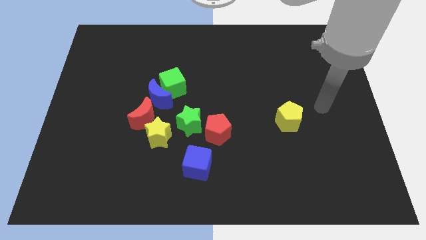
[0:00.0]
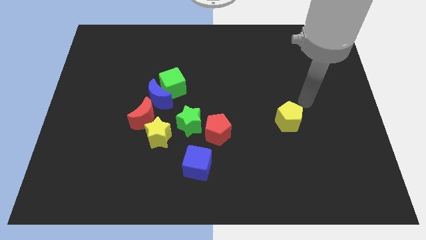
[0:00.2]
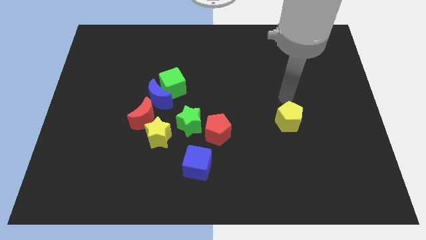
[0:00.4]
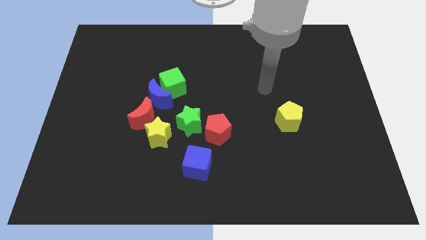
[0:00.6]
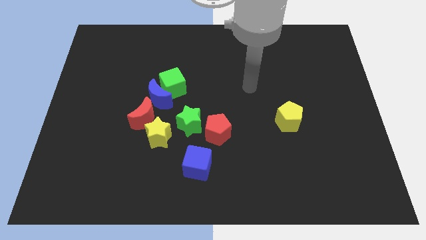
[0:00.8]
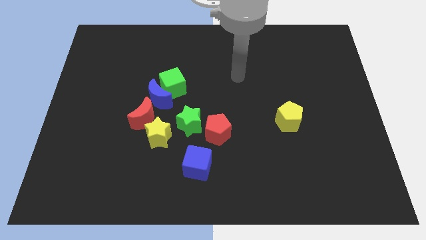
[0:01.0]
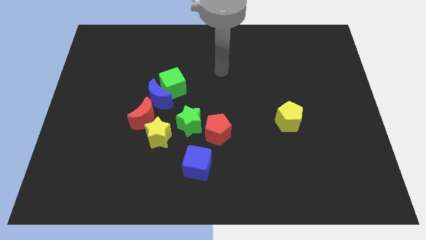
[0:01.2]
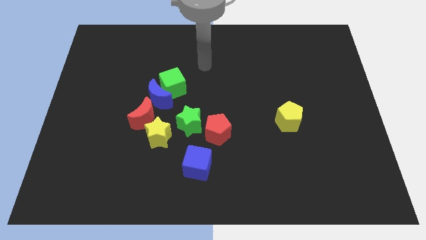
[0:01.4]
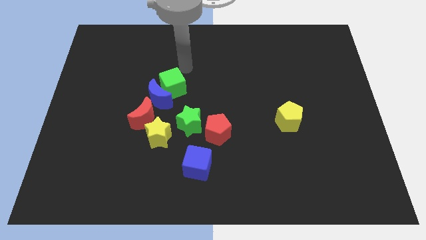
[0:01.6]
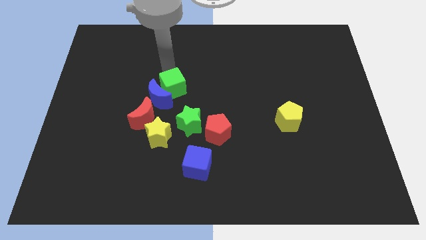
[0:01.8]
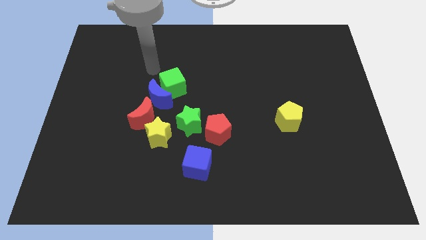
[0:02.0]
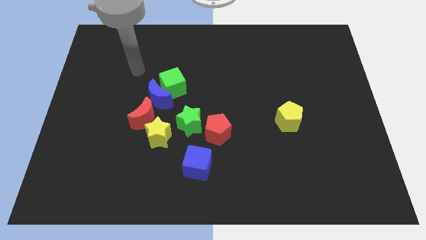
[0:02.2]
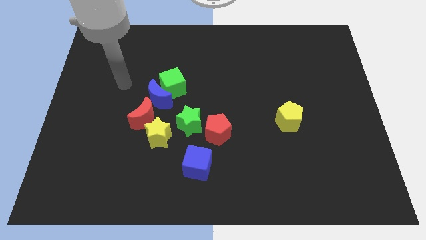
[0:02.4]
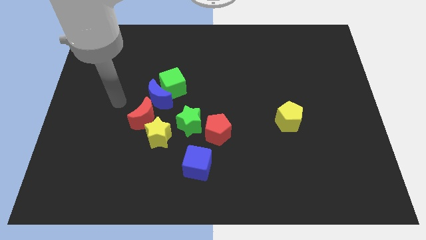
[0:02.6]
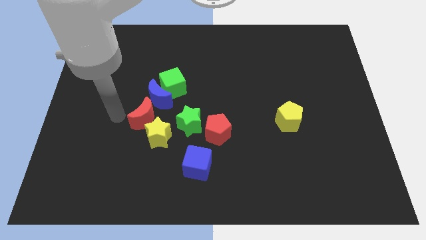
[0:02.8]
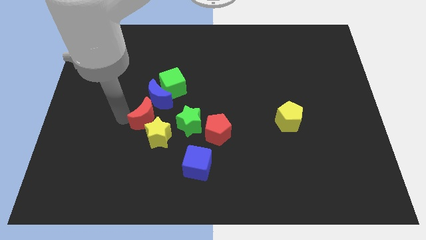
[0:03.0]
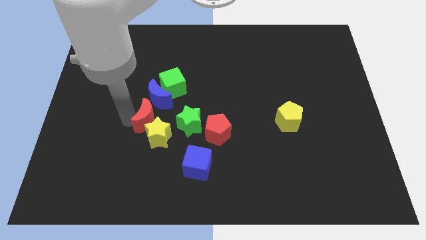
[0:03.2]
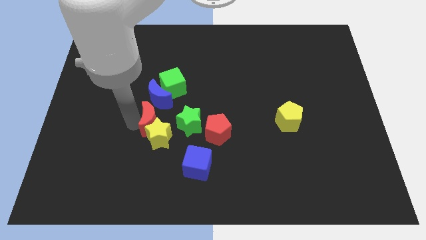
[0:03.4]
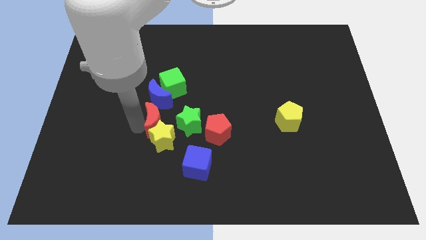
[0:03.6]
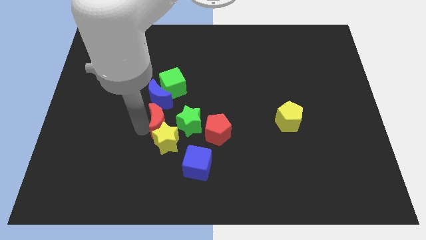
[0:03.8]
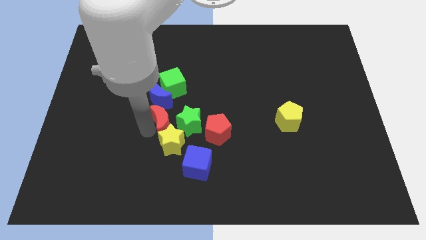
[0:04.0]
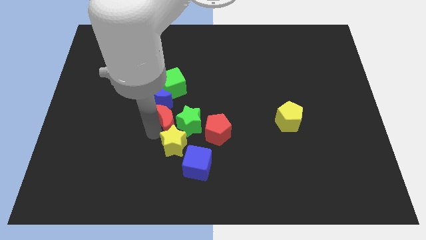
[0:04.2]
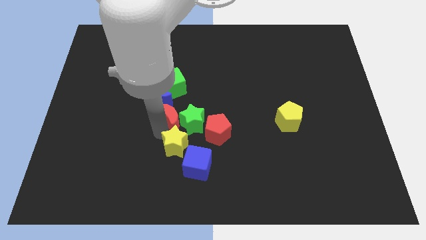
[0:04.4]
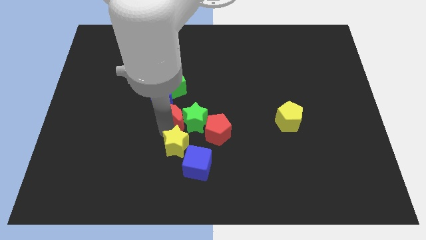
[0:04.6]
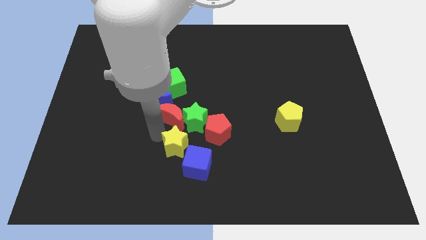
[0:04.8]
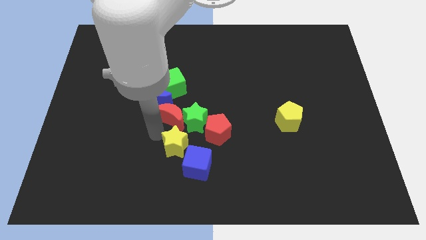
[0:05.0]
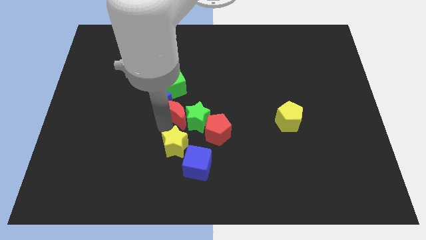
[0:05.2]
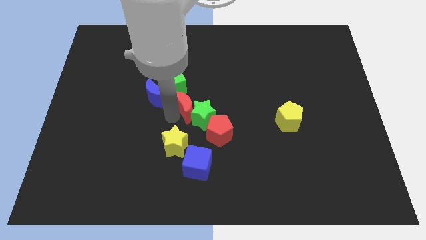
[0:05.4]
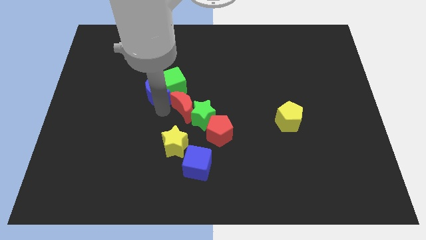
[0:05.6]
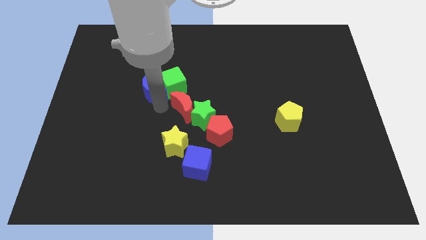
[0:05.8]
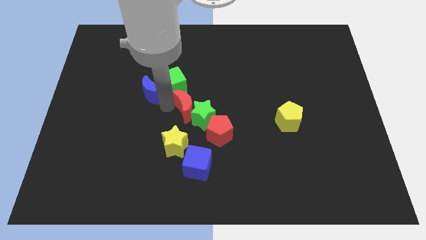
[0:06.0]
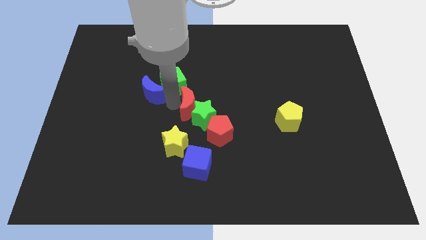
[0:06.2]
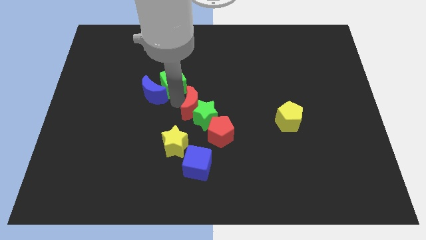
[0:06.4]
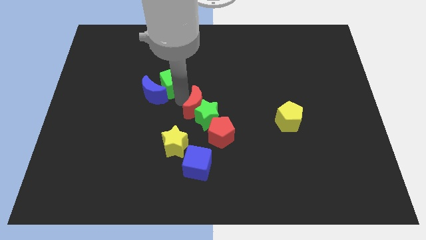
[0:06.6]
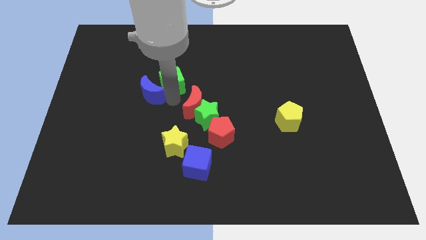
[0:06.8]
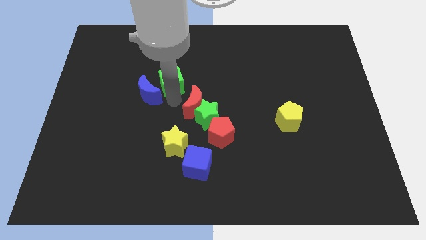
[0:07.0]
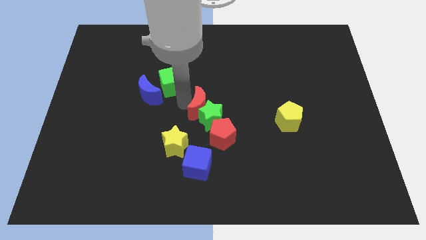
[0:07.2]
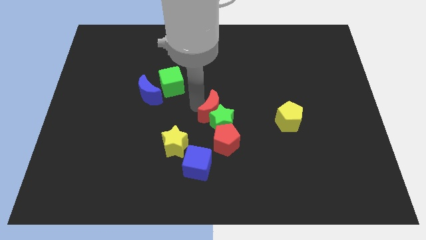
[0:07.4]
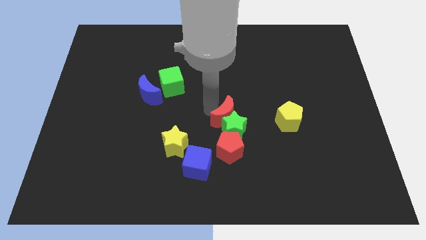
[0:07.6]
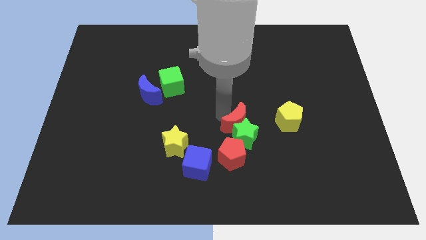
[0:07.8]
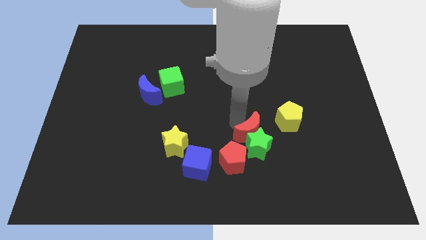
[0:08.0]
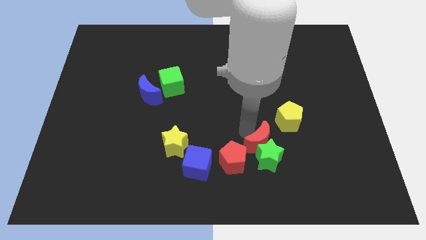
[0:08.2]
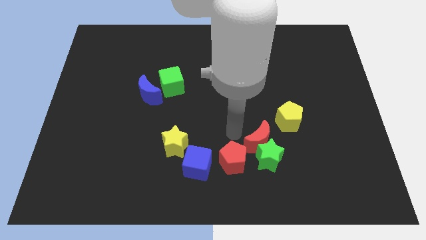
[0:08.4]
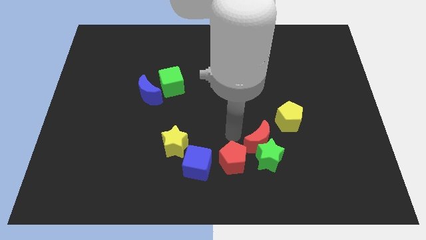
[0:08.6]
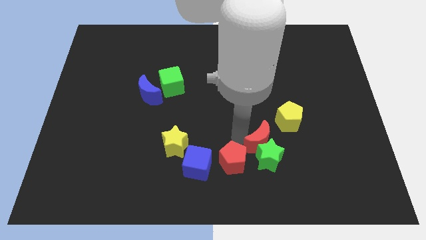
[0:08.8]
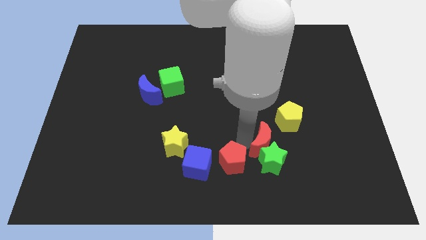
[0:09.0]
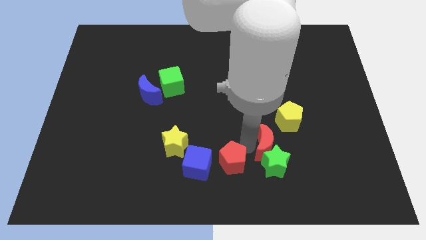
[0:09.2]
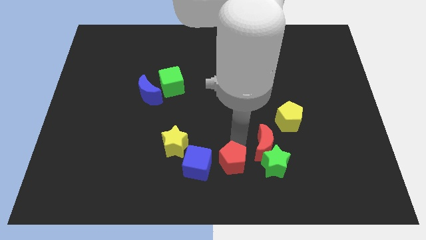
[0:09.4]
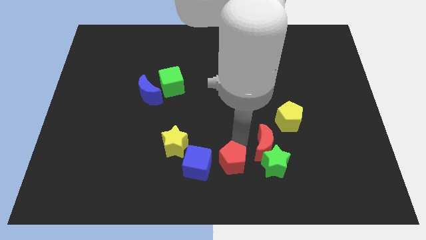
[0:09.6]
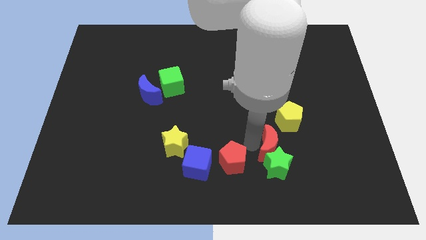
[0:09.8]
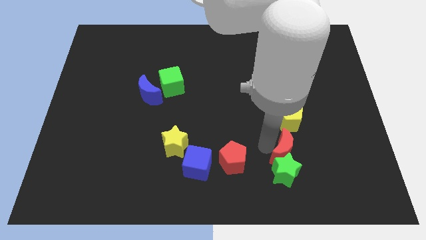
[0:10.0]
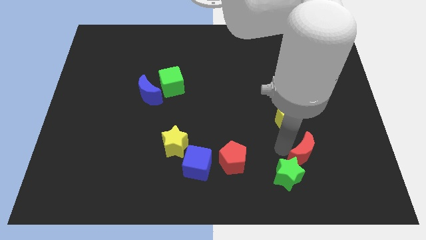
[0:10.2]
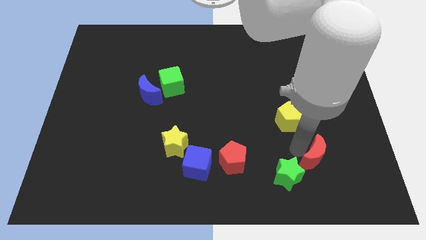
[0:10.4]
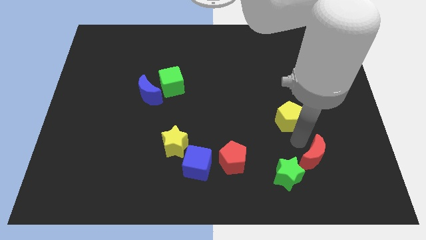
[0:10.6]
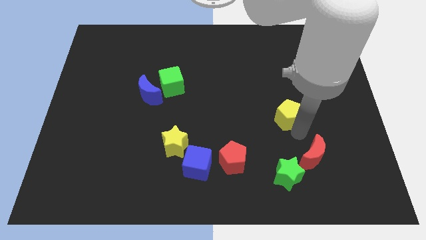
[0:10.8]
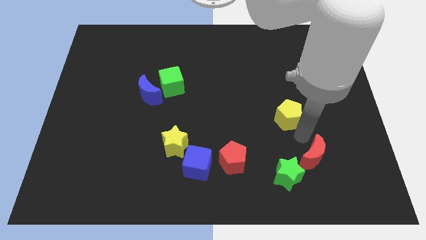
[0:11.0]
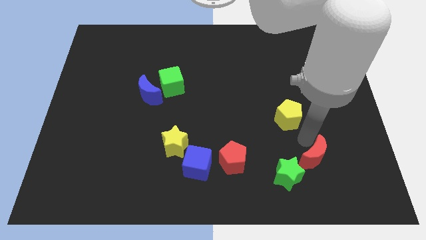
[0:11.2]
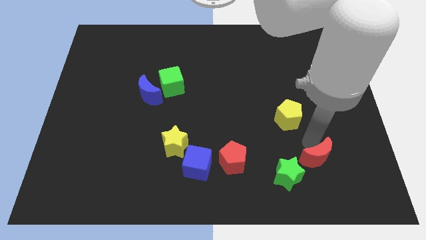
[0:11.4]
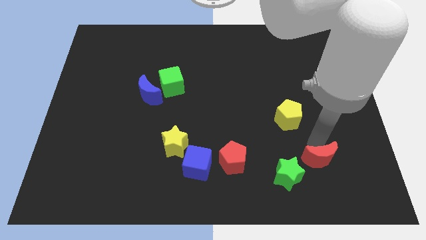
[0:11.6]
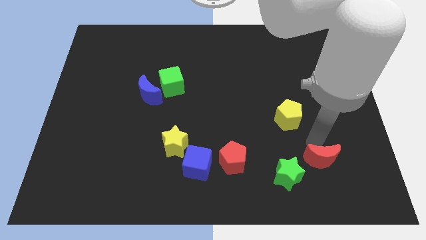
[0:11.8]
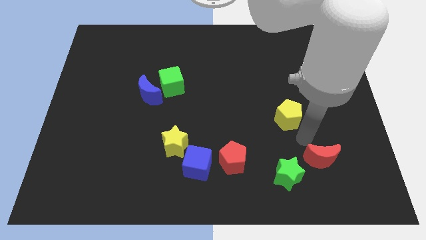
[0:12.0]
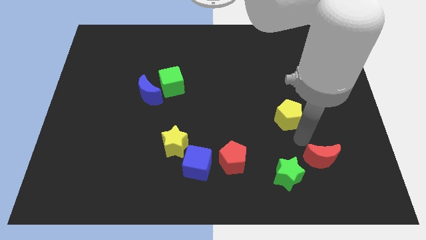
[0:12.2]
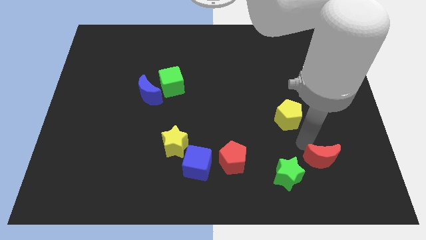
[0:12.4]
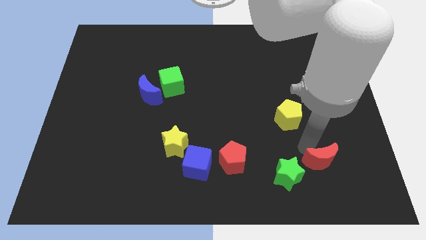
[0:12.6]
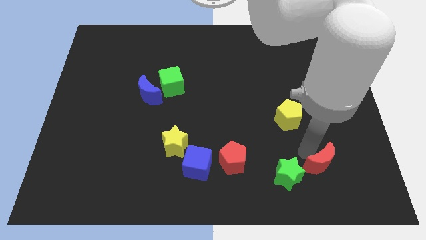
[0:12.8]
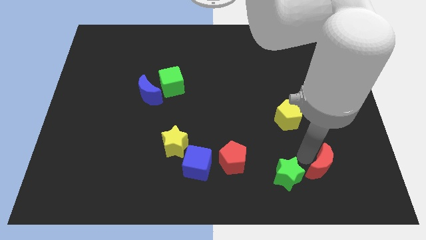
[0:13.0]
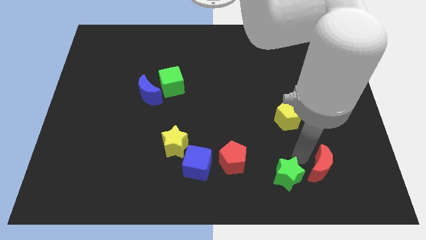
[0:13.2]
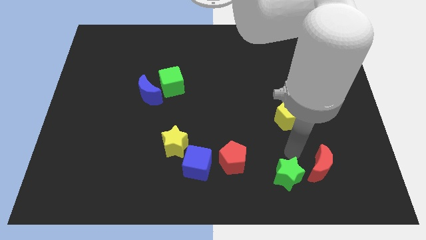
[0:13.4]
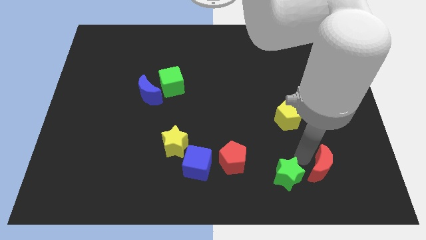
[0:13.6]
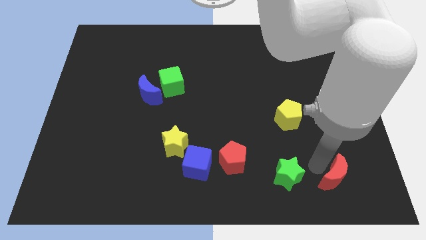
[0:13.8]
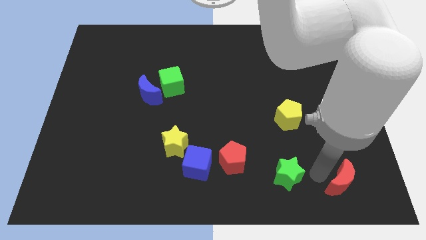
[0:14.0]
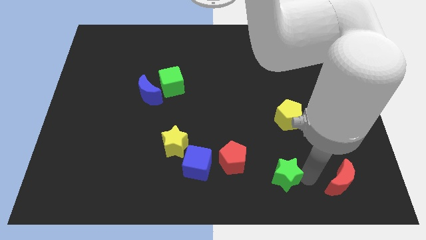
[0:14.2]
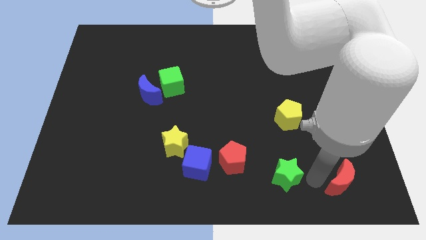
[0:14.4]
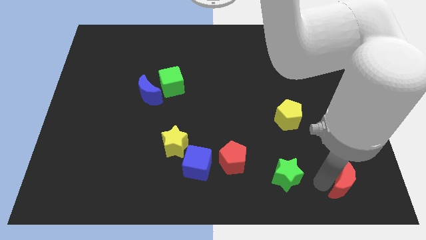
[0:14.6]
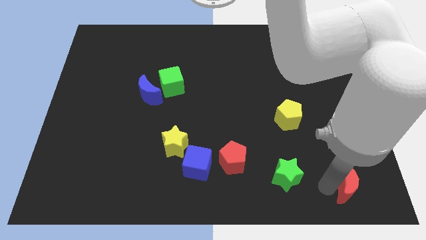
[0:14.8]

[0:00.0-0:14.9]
slide the red moon to the bottom right of the board
